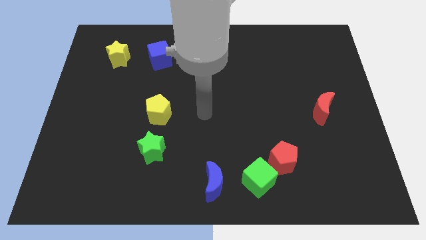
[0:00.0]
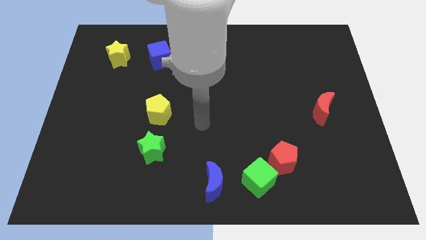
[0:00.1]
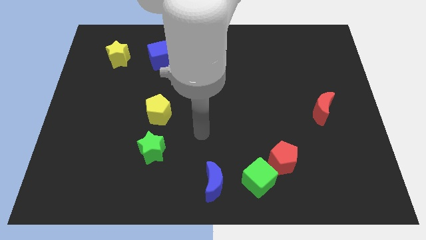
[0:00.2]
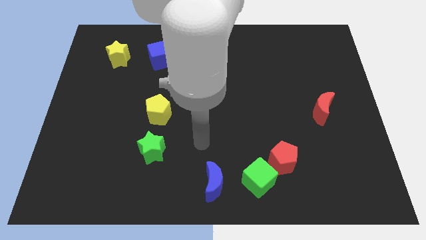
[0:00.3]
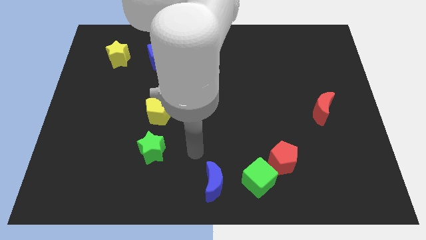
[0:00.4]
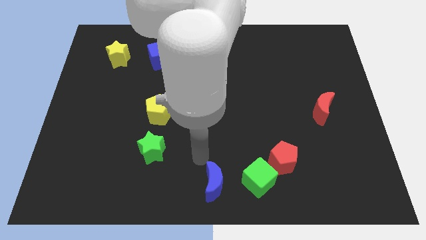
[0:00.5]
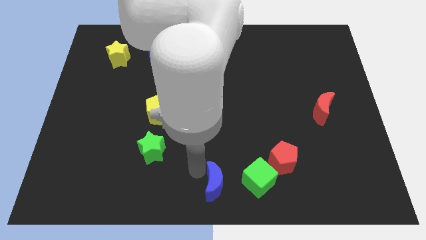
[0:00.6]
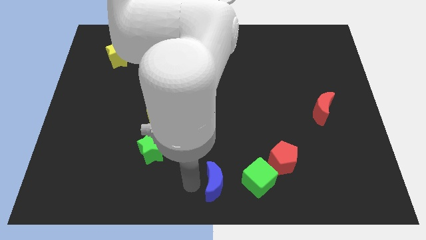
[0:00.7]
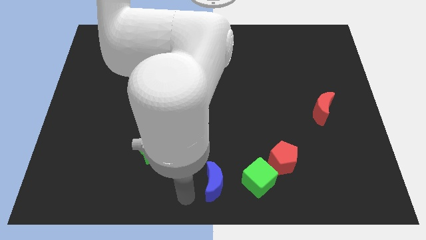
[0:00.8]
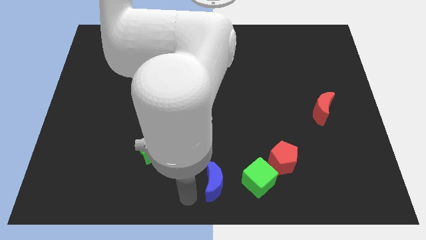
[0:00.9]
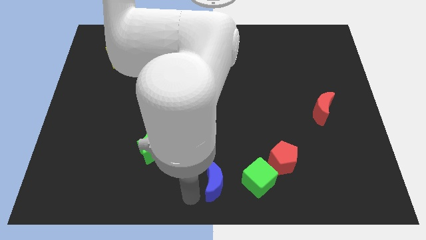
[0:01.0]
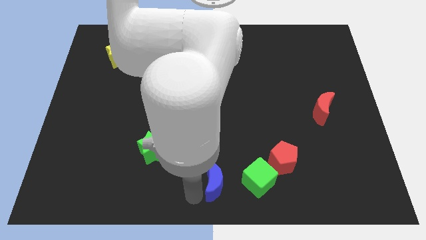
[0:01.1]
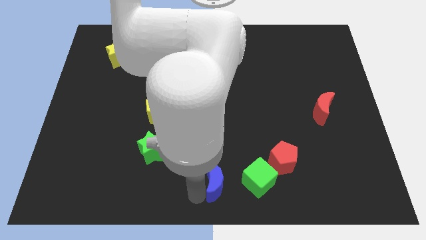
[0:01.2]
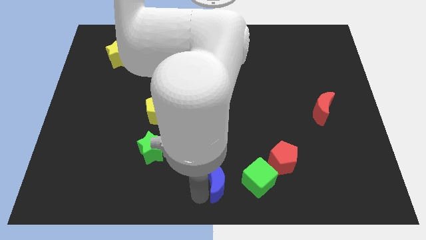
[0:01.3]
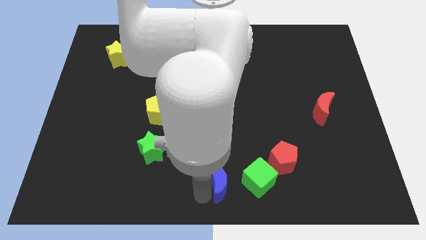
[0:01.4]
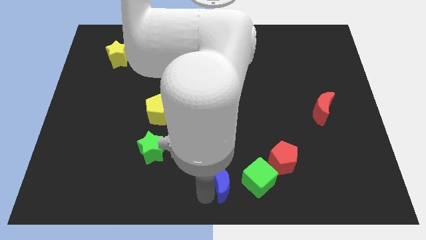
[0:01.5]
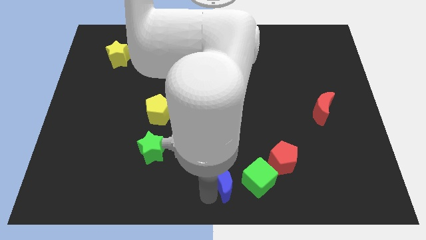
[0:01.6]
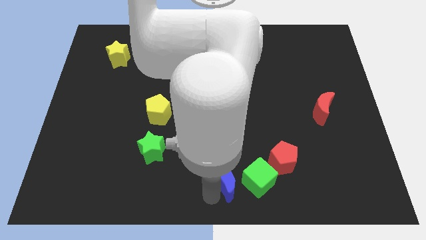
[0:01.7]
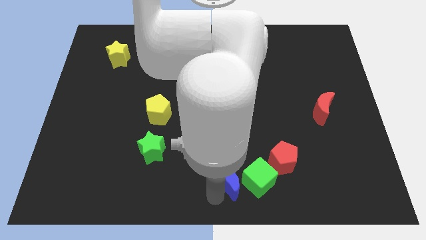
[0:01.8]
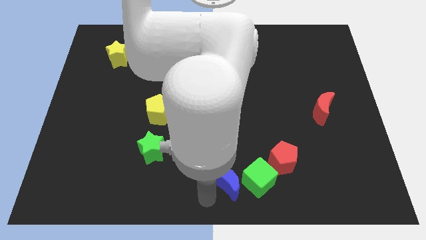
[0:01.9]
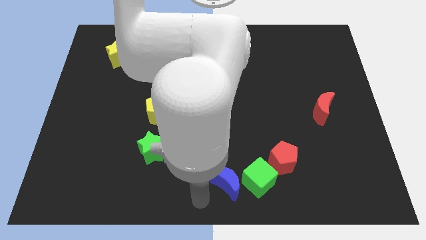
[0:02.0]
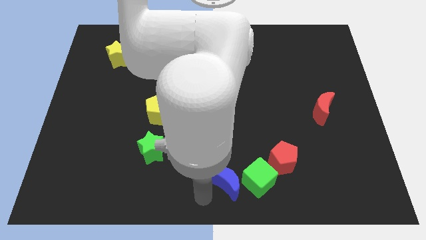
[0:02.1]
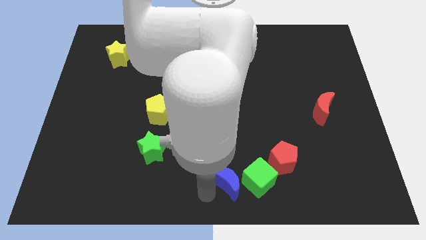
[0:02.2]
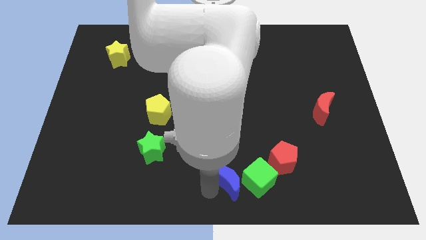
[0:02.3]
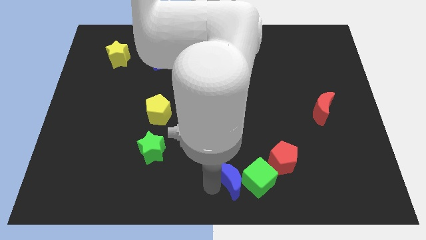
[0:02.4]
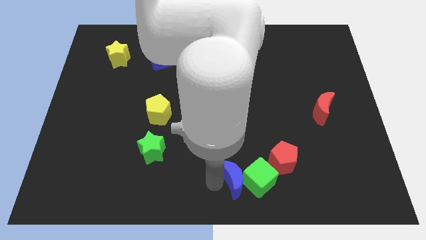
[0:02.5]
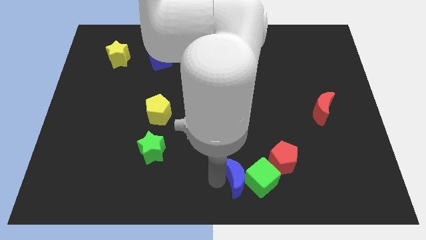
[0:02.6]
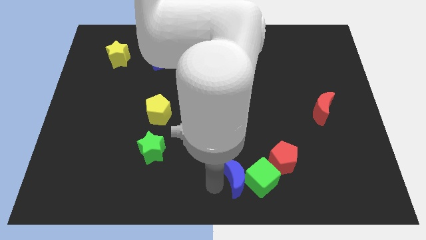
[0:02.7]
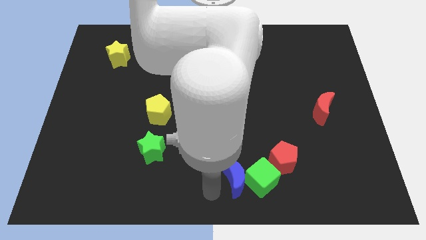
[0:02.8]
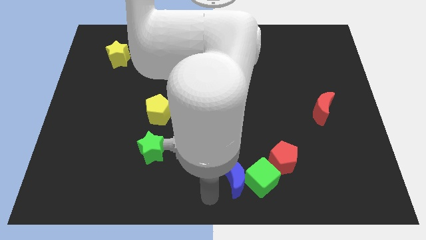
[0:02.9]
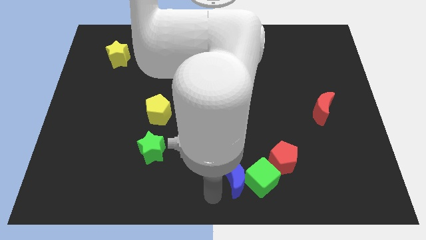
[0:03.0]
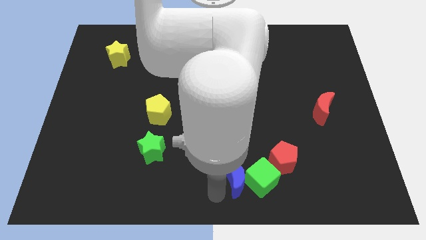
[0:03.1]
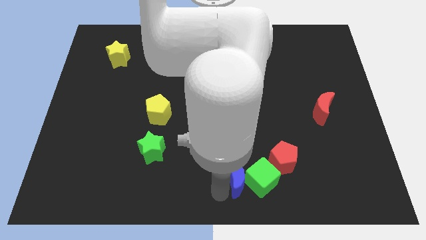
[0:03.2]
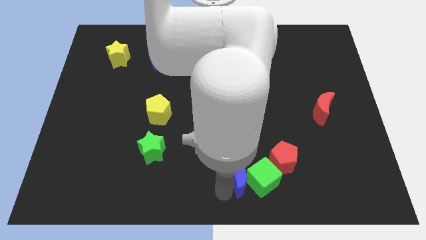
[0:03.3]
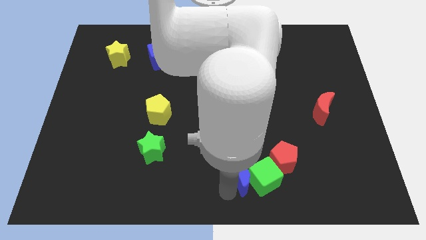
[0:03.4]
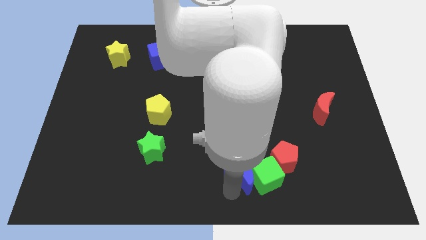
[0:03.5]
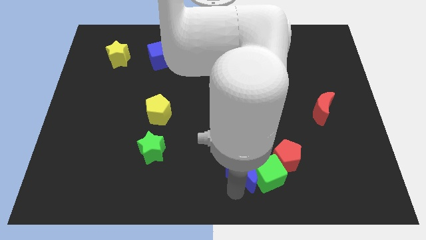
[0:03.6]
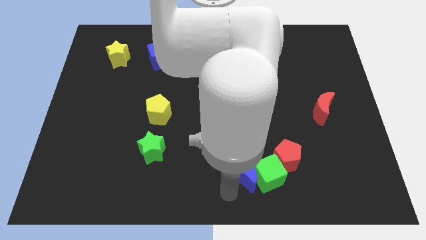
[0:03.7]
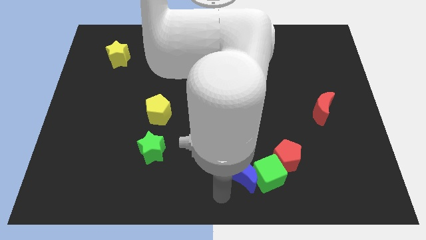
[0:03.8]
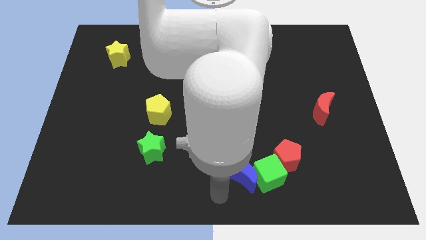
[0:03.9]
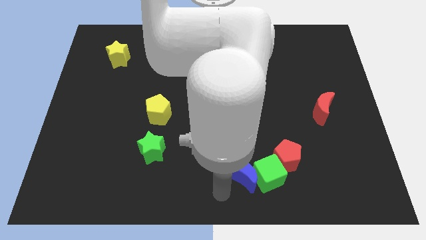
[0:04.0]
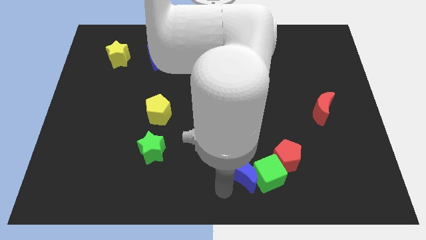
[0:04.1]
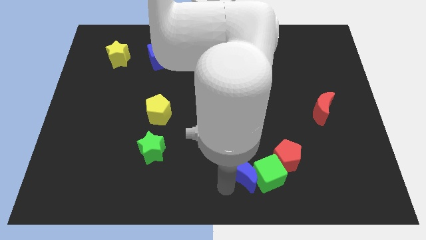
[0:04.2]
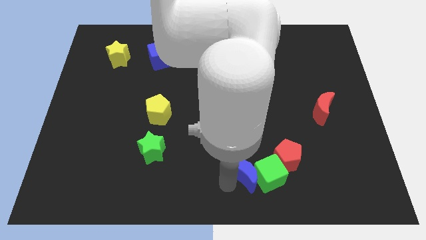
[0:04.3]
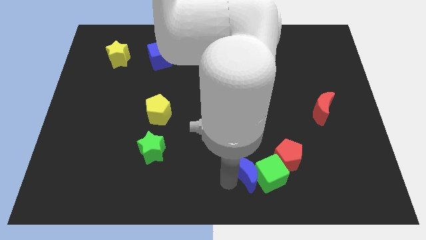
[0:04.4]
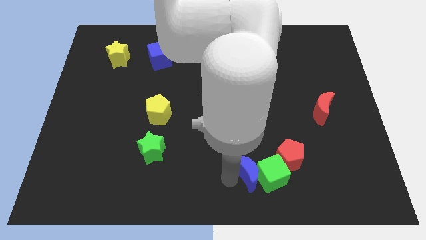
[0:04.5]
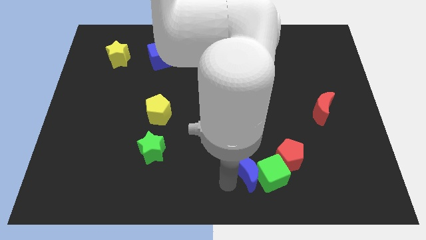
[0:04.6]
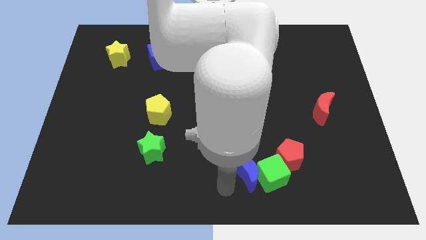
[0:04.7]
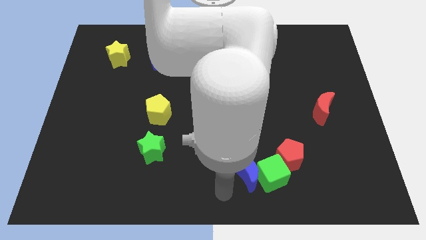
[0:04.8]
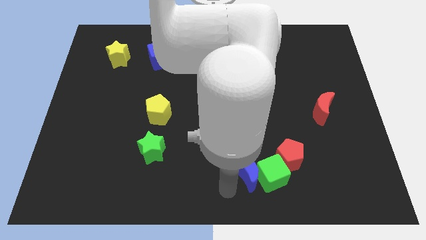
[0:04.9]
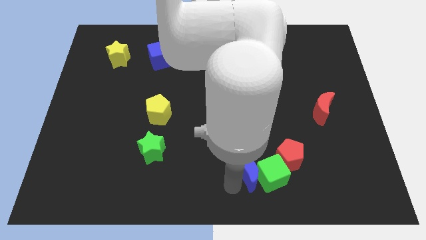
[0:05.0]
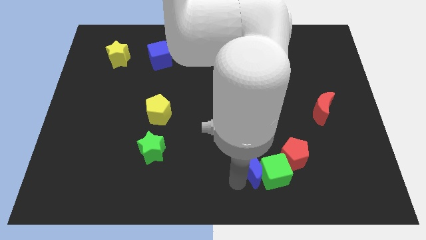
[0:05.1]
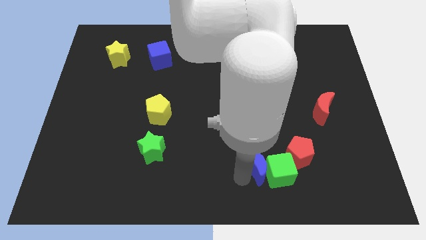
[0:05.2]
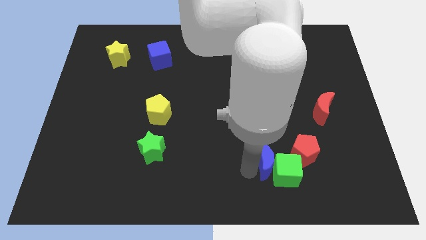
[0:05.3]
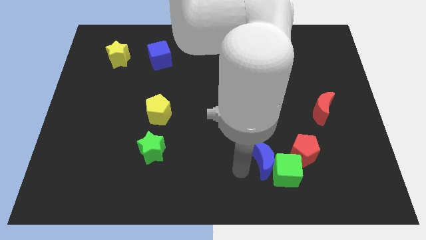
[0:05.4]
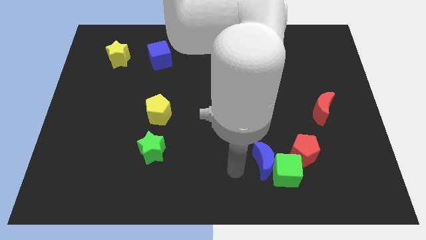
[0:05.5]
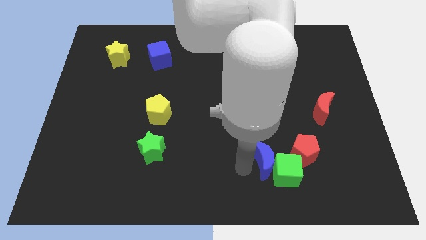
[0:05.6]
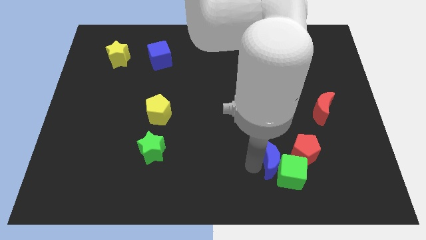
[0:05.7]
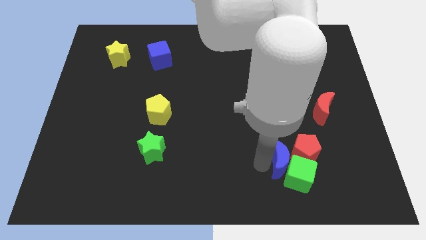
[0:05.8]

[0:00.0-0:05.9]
move the blue moon to the red pentagon
